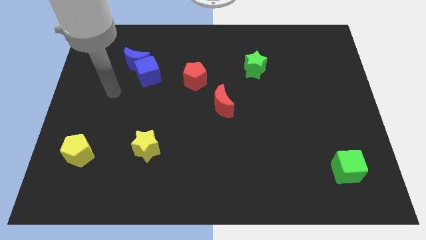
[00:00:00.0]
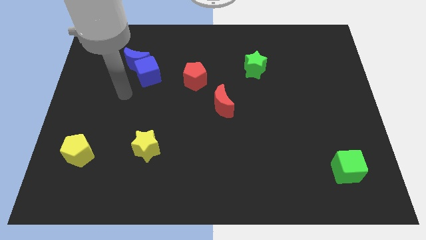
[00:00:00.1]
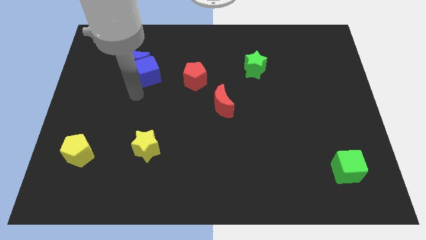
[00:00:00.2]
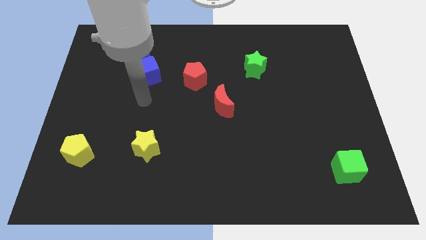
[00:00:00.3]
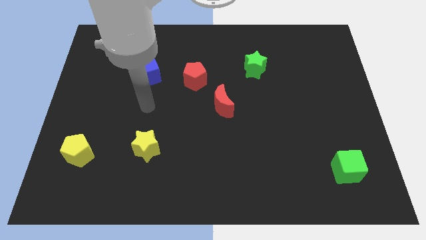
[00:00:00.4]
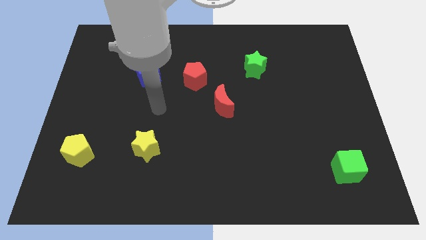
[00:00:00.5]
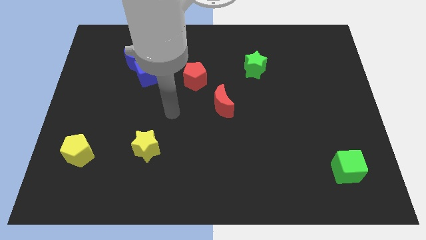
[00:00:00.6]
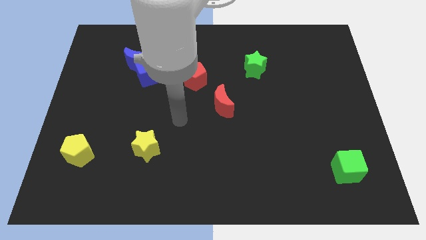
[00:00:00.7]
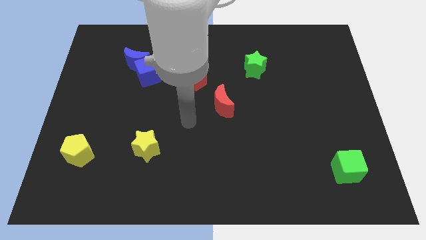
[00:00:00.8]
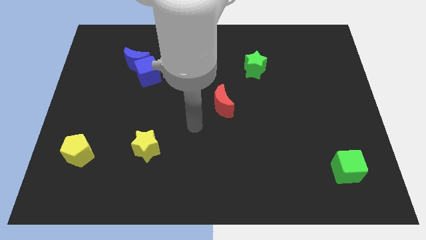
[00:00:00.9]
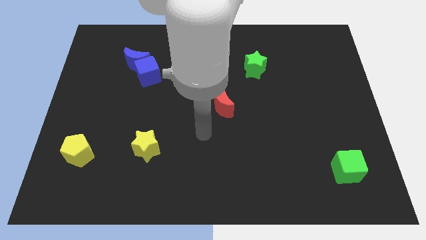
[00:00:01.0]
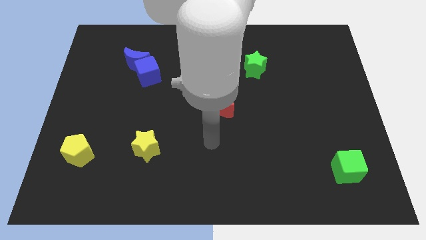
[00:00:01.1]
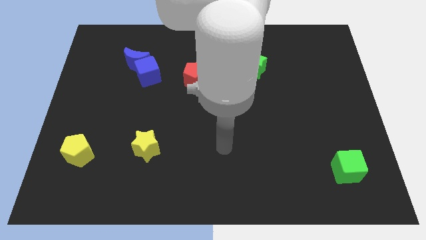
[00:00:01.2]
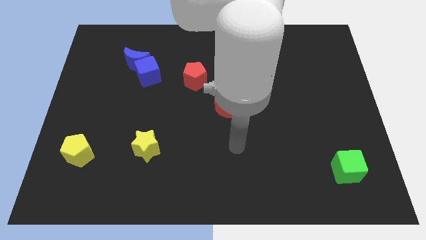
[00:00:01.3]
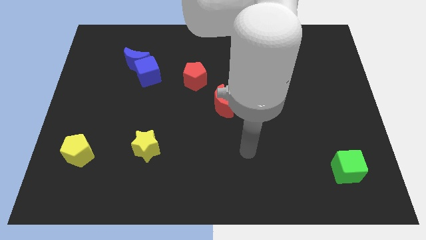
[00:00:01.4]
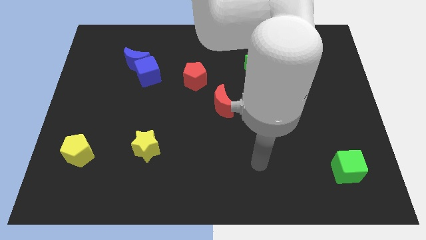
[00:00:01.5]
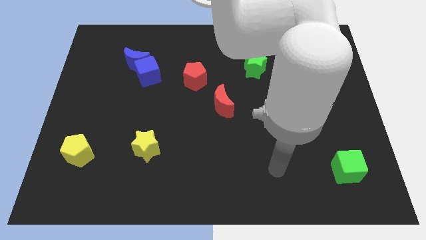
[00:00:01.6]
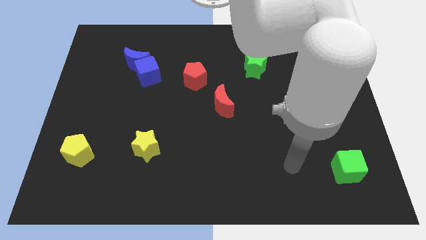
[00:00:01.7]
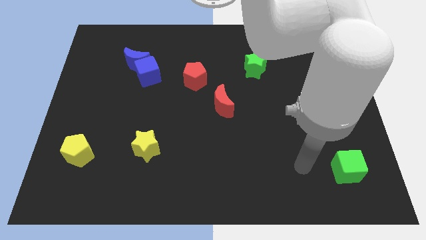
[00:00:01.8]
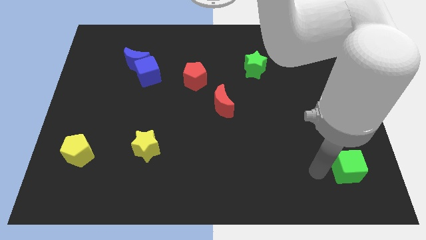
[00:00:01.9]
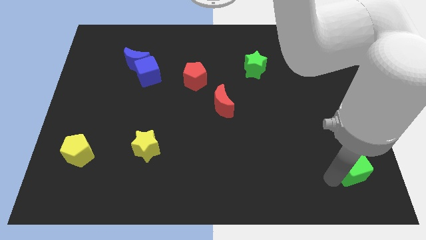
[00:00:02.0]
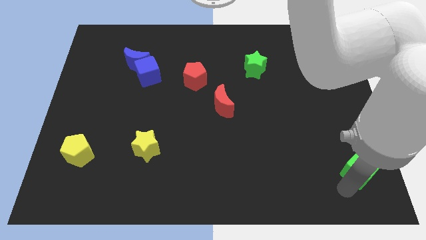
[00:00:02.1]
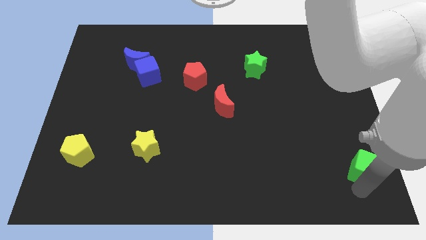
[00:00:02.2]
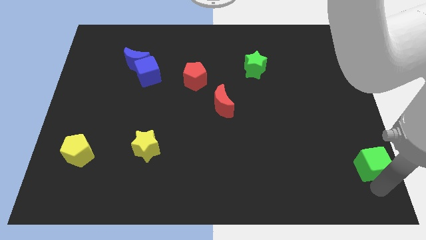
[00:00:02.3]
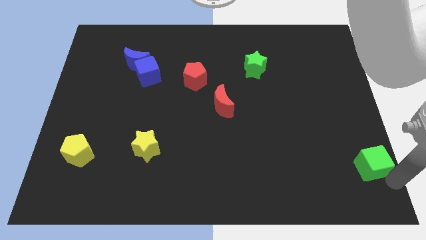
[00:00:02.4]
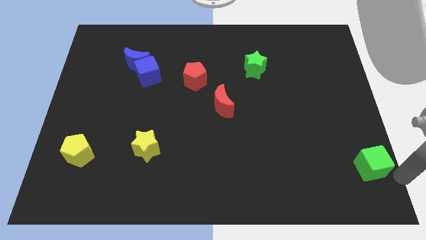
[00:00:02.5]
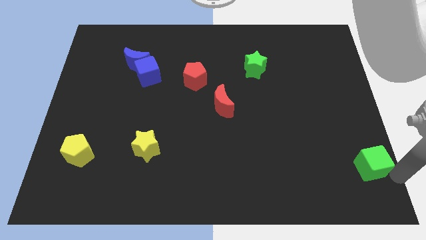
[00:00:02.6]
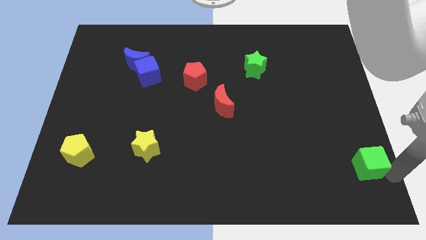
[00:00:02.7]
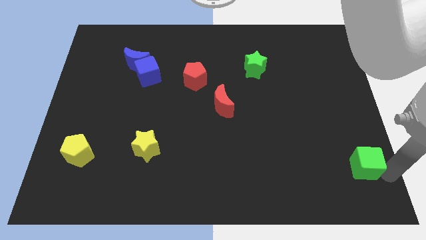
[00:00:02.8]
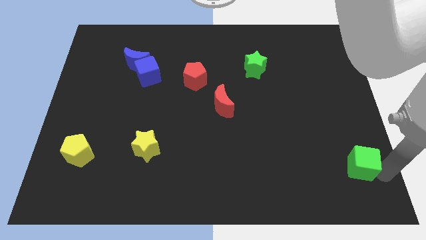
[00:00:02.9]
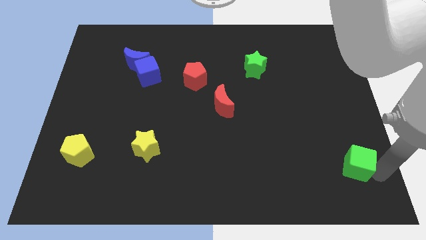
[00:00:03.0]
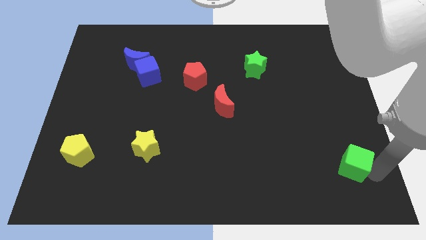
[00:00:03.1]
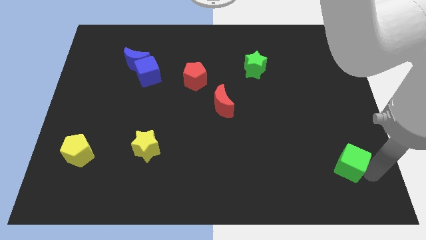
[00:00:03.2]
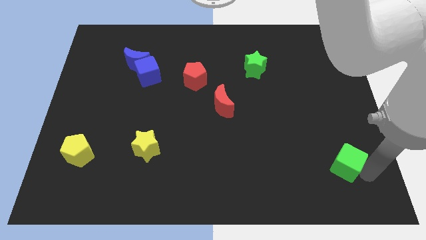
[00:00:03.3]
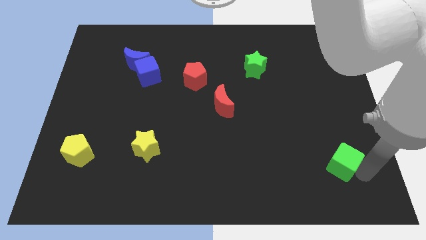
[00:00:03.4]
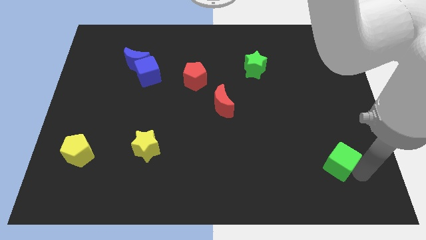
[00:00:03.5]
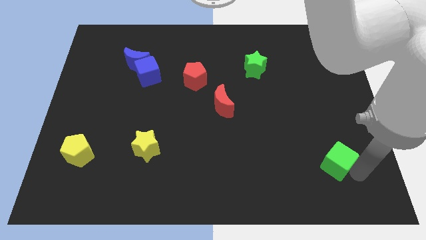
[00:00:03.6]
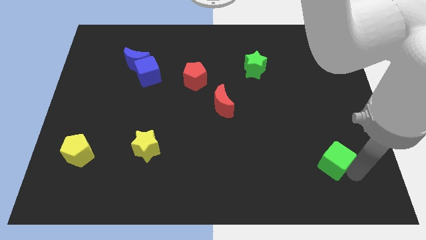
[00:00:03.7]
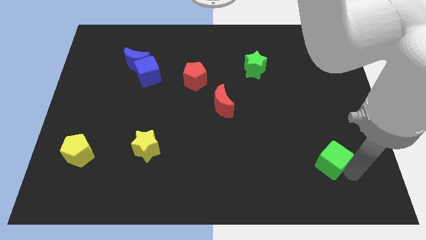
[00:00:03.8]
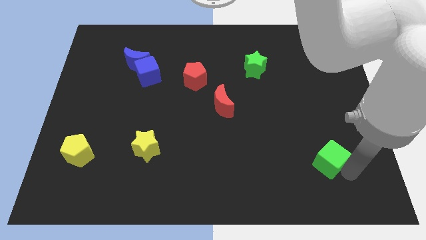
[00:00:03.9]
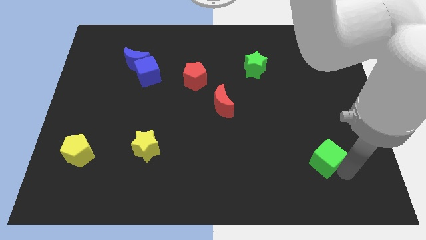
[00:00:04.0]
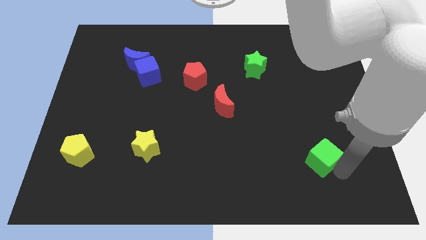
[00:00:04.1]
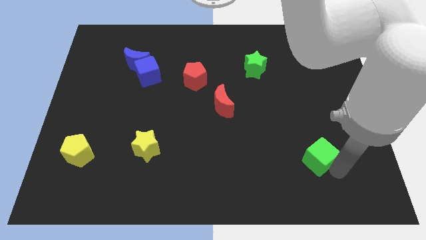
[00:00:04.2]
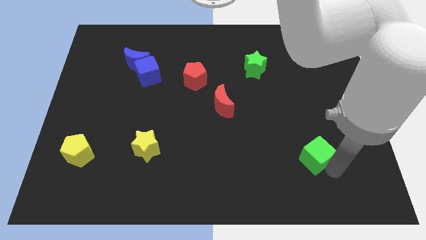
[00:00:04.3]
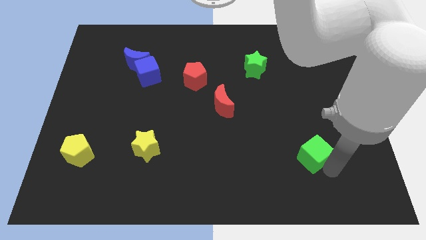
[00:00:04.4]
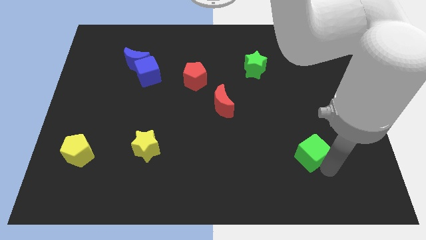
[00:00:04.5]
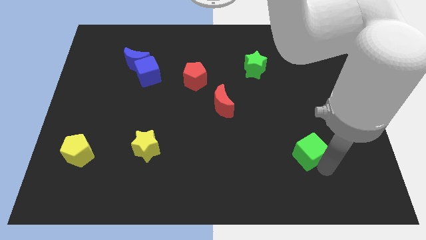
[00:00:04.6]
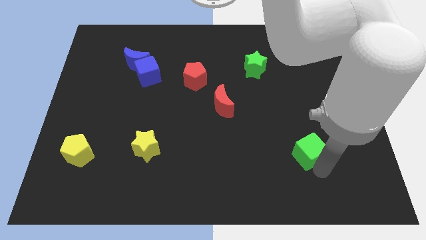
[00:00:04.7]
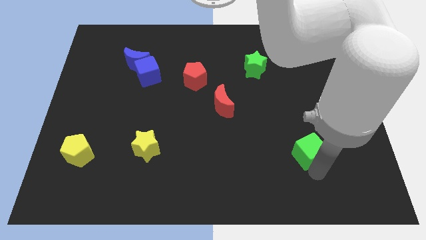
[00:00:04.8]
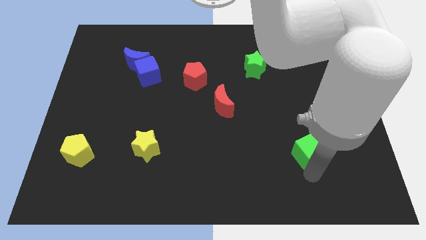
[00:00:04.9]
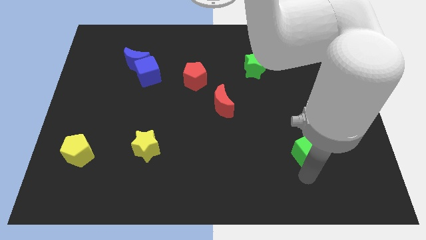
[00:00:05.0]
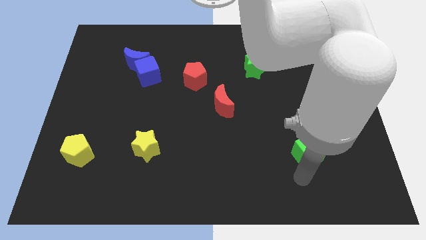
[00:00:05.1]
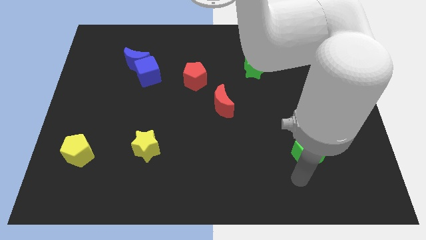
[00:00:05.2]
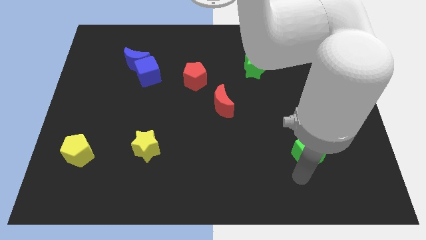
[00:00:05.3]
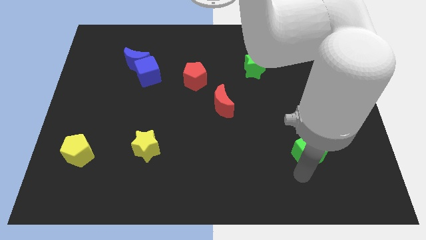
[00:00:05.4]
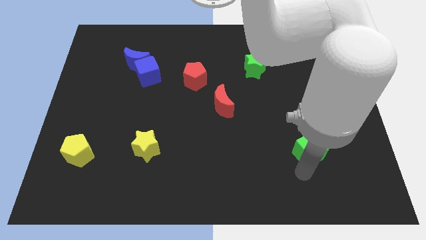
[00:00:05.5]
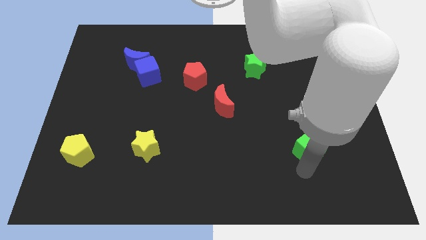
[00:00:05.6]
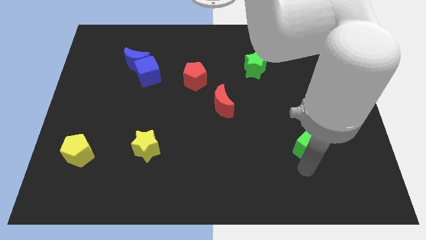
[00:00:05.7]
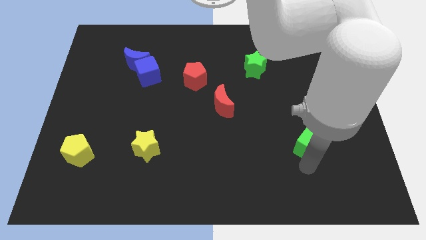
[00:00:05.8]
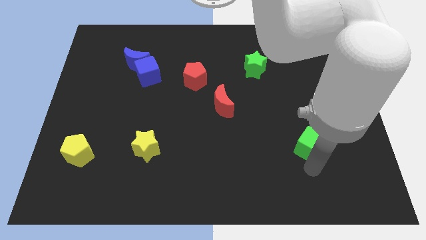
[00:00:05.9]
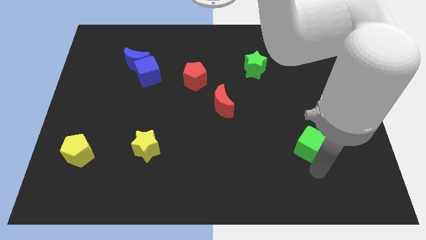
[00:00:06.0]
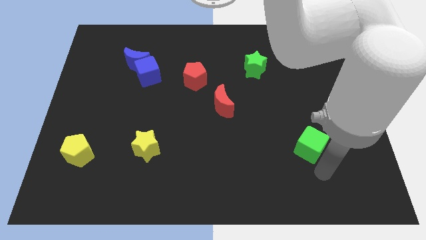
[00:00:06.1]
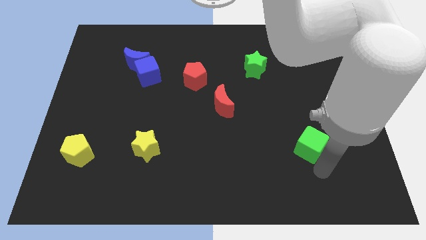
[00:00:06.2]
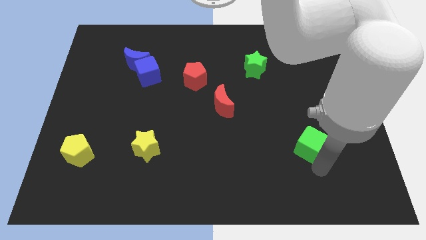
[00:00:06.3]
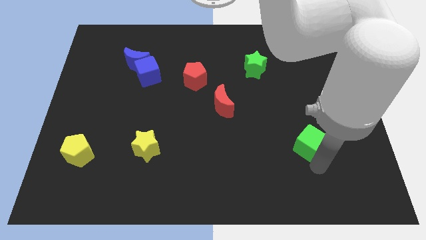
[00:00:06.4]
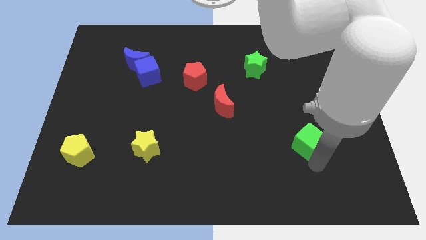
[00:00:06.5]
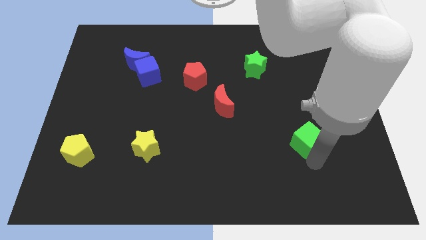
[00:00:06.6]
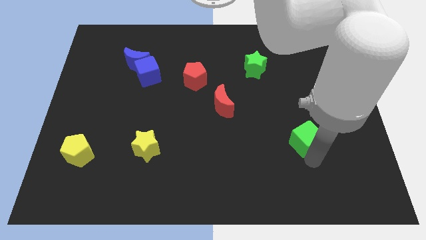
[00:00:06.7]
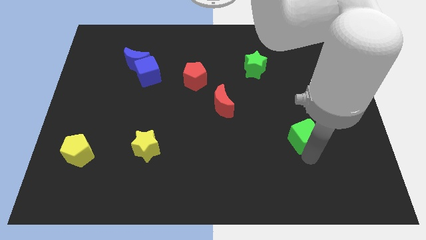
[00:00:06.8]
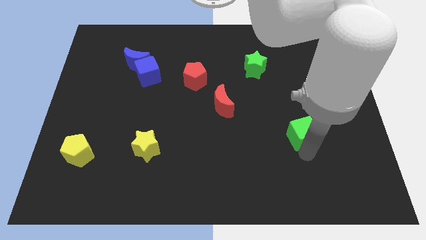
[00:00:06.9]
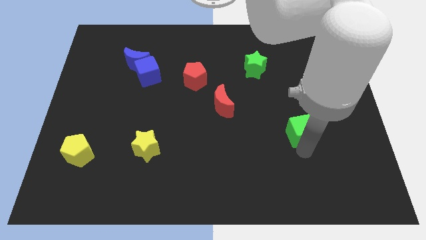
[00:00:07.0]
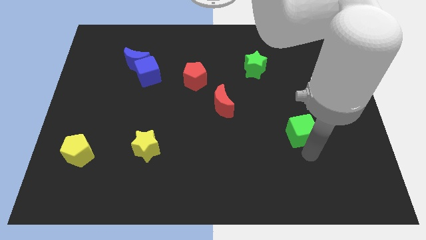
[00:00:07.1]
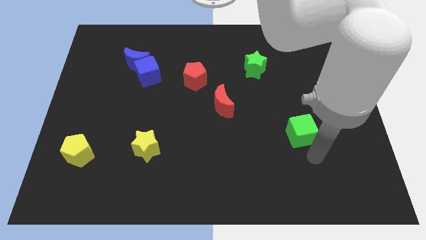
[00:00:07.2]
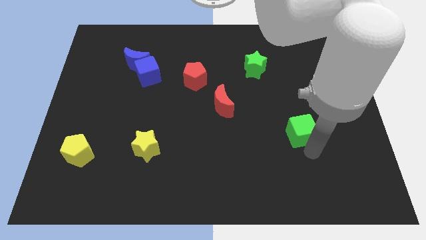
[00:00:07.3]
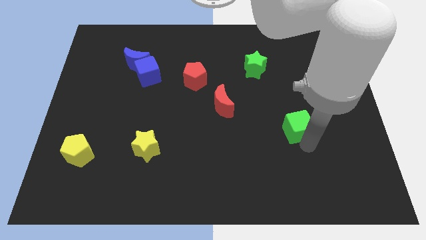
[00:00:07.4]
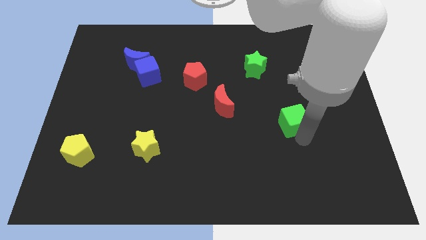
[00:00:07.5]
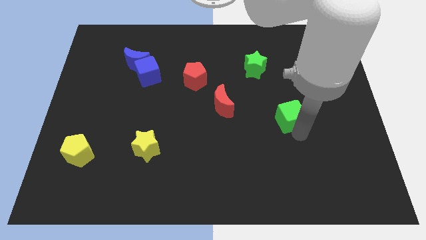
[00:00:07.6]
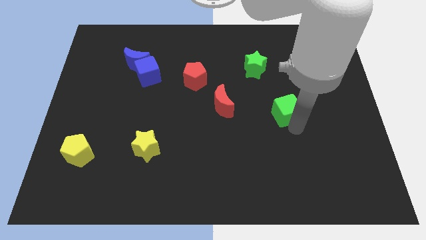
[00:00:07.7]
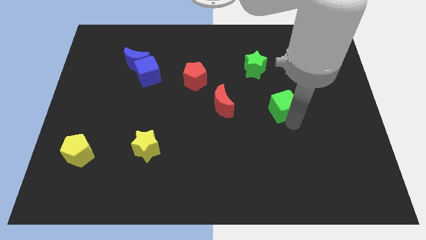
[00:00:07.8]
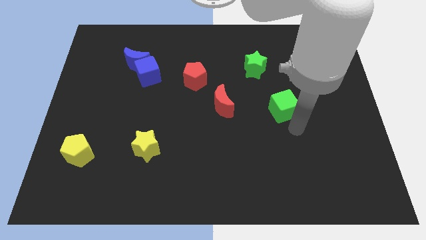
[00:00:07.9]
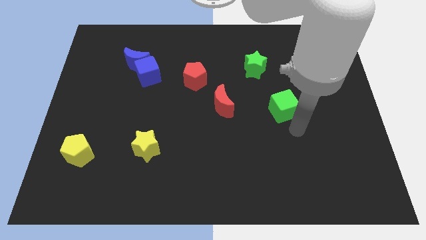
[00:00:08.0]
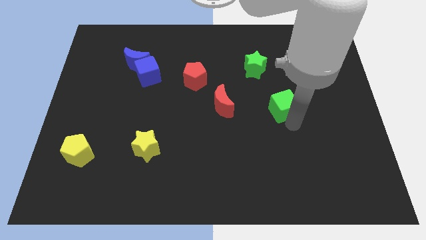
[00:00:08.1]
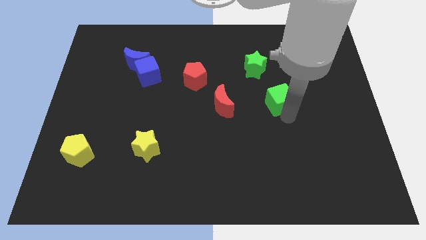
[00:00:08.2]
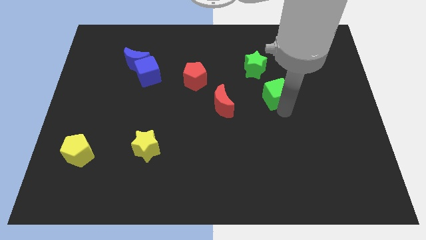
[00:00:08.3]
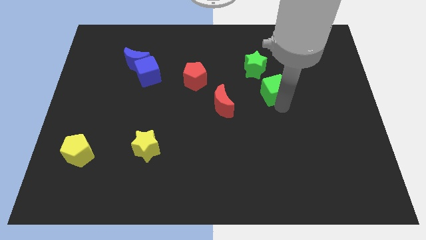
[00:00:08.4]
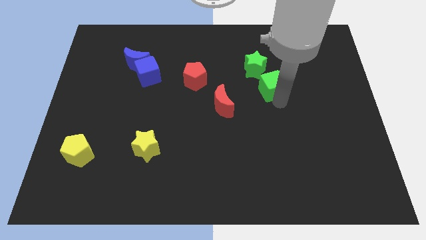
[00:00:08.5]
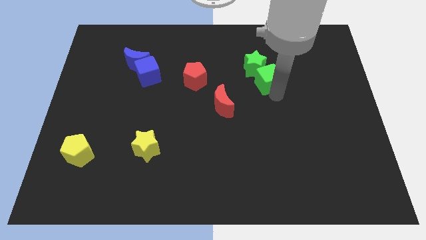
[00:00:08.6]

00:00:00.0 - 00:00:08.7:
put the green cube towards the green star
